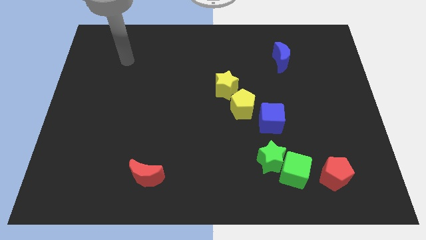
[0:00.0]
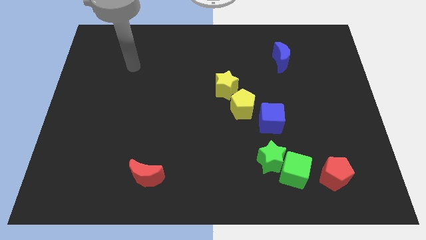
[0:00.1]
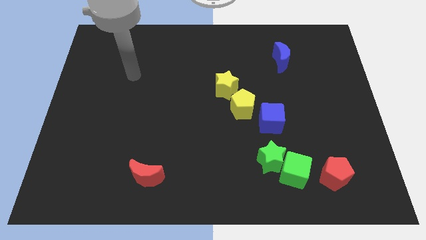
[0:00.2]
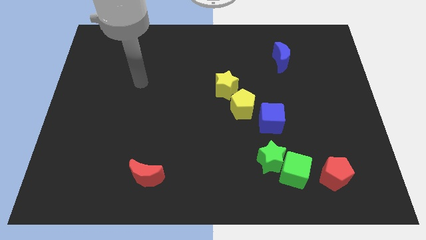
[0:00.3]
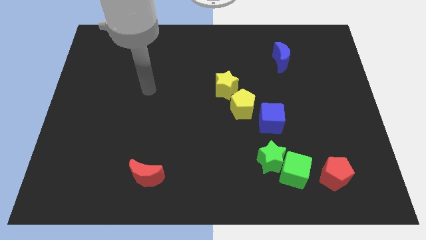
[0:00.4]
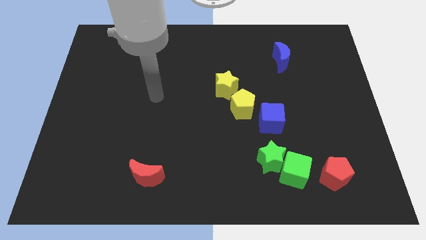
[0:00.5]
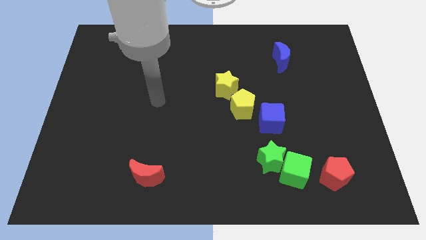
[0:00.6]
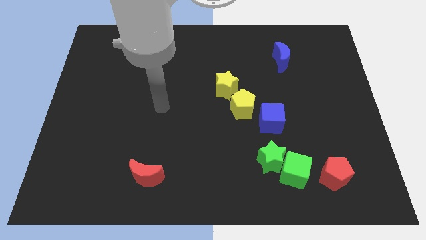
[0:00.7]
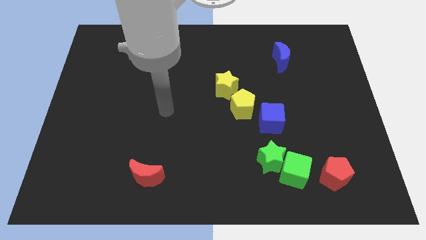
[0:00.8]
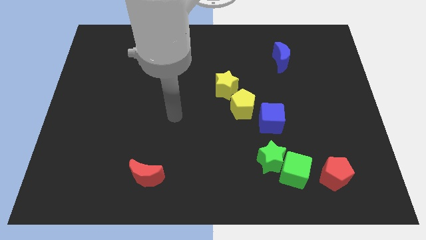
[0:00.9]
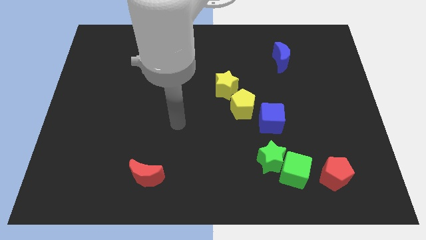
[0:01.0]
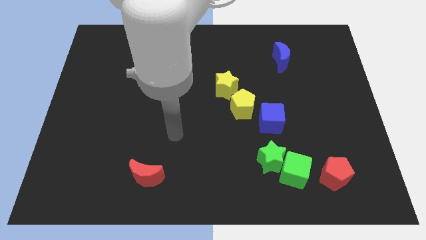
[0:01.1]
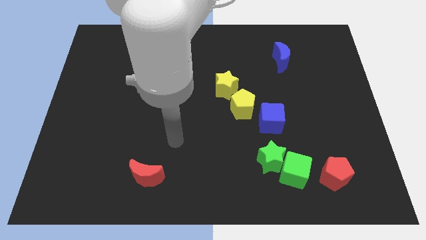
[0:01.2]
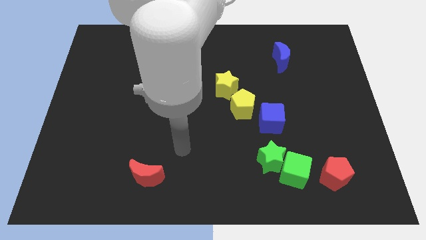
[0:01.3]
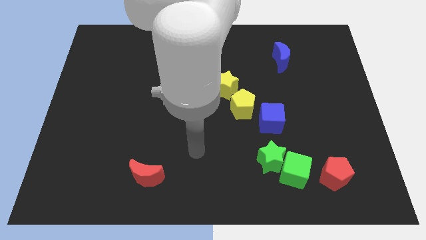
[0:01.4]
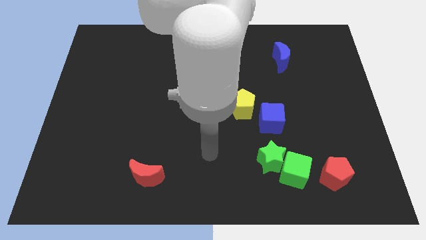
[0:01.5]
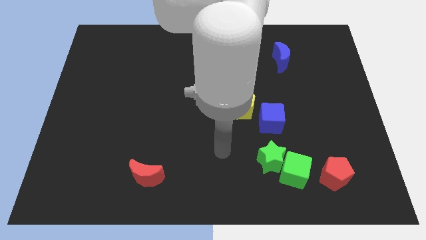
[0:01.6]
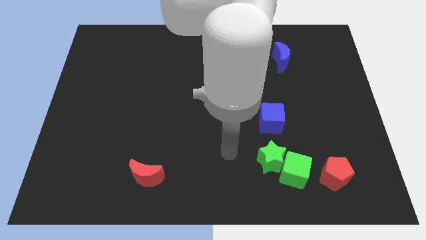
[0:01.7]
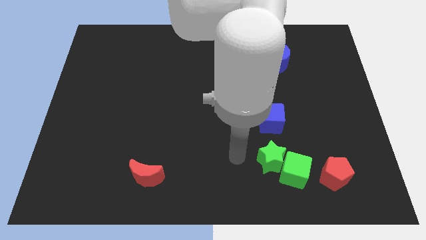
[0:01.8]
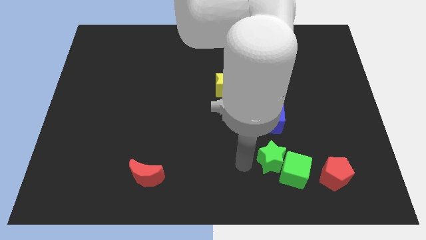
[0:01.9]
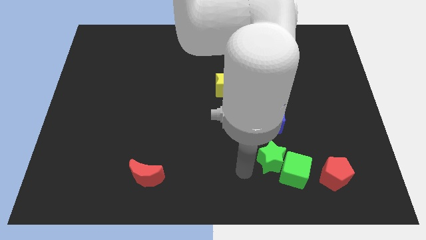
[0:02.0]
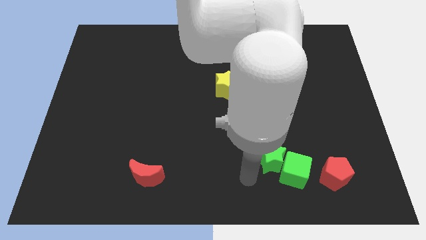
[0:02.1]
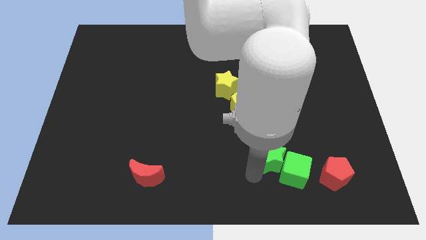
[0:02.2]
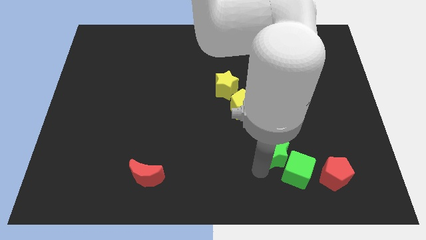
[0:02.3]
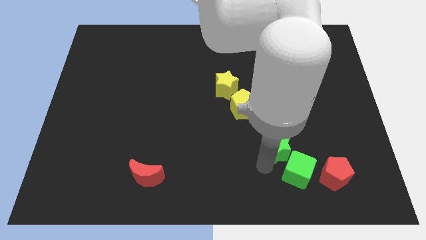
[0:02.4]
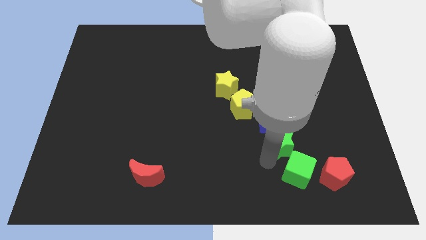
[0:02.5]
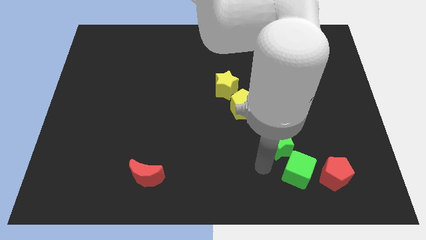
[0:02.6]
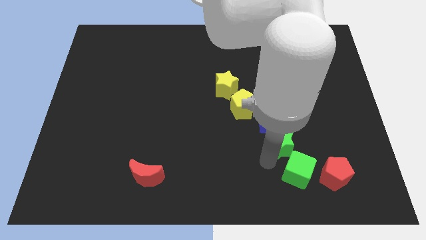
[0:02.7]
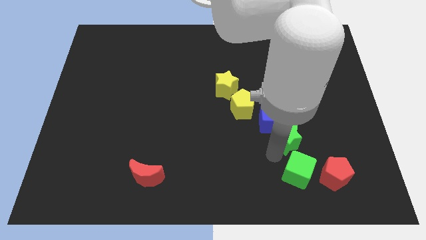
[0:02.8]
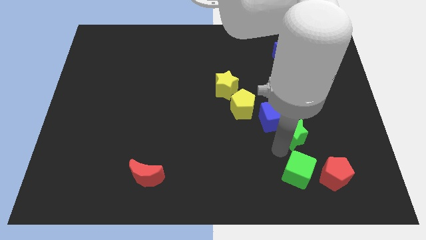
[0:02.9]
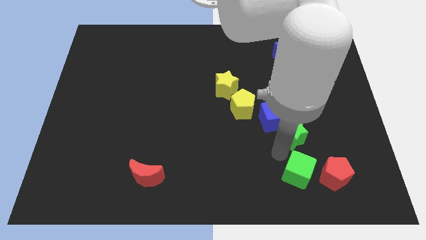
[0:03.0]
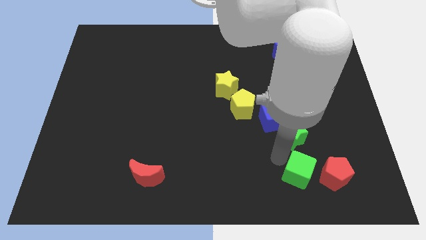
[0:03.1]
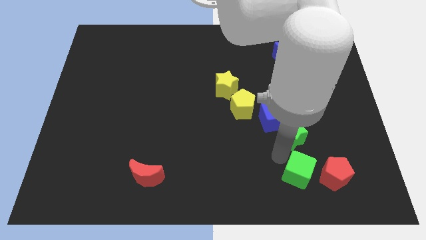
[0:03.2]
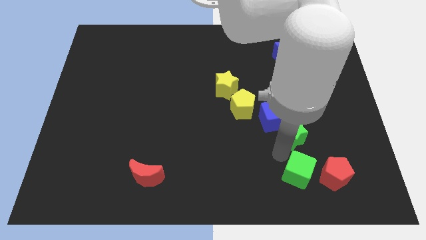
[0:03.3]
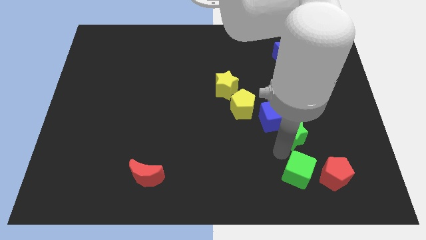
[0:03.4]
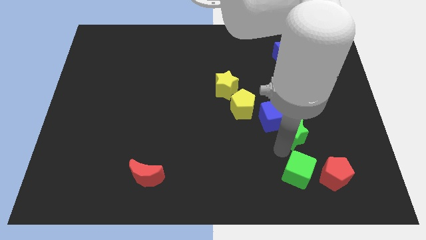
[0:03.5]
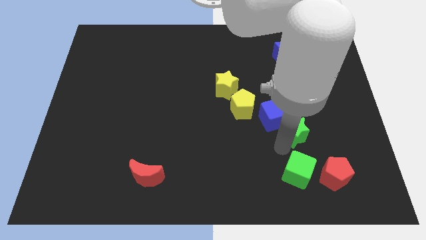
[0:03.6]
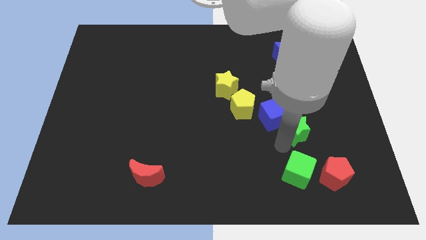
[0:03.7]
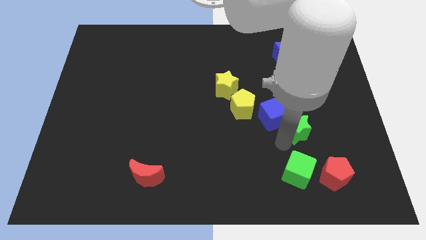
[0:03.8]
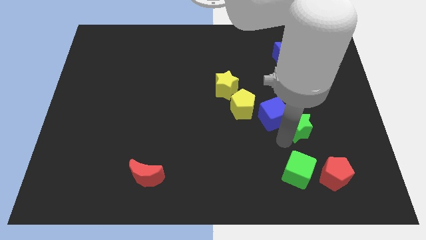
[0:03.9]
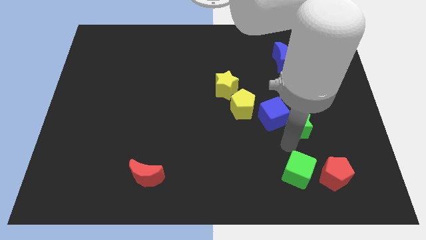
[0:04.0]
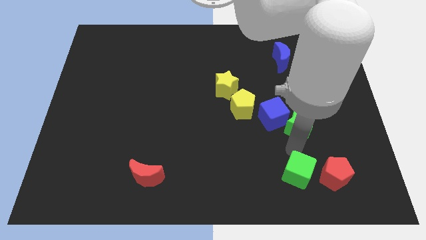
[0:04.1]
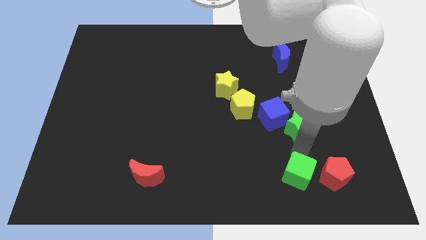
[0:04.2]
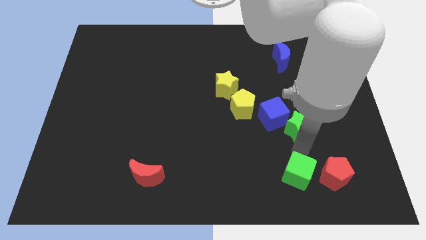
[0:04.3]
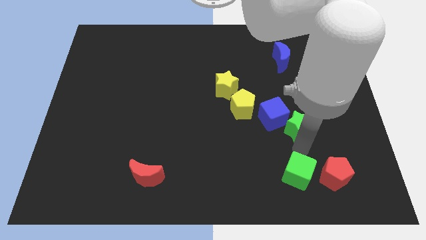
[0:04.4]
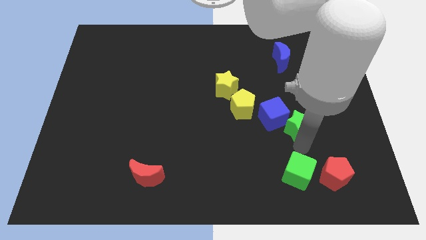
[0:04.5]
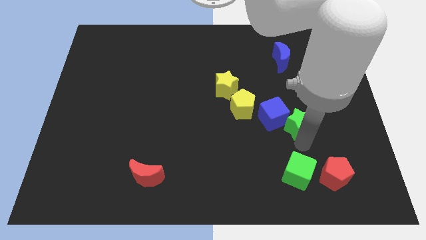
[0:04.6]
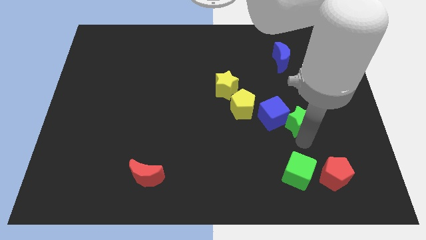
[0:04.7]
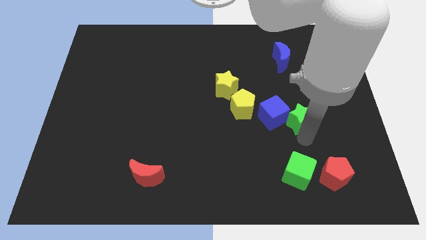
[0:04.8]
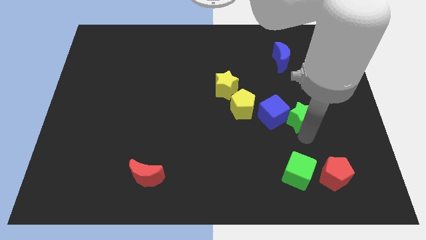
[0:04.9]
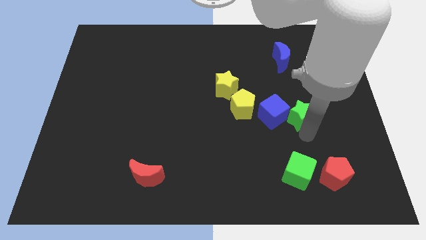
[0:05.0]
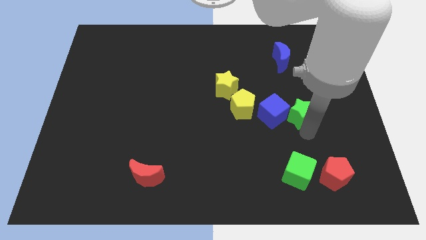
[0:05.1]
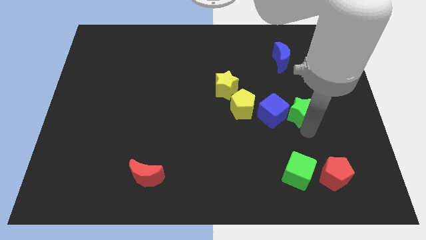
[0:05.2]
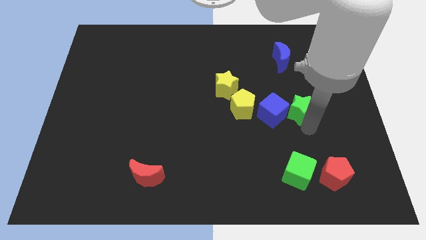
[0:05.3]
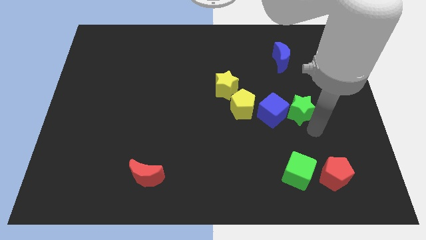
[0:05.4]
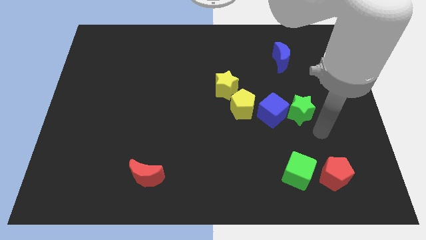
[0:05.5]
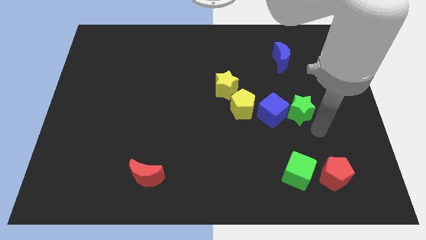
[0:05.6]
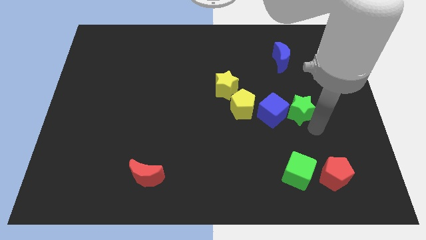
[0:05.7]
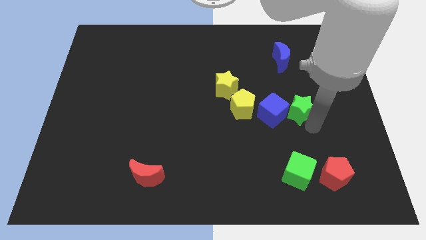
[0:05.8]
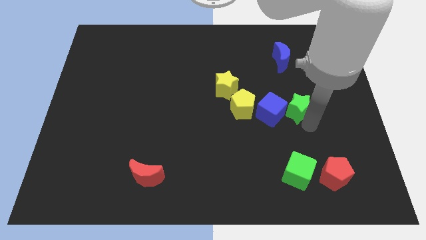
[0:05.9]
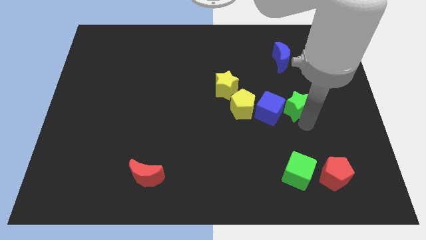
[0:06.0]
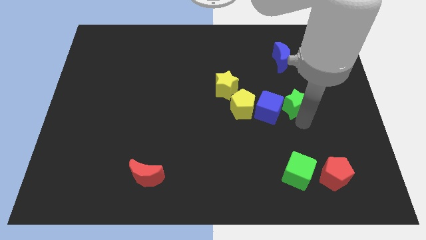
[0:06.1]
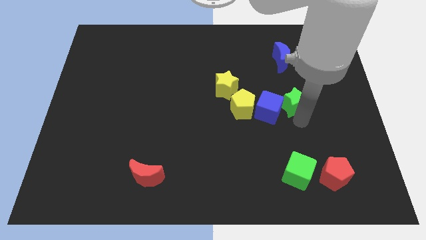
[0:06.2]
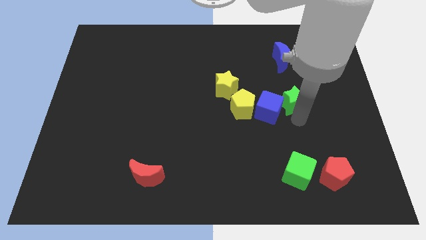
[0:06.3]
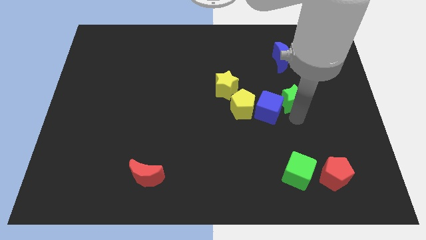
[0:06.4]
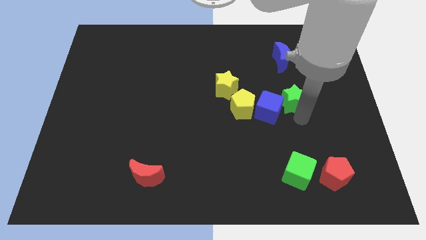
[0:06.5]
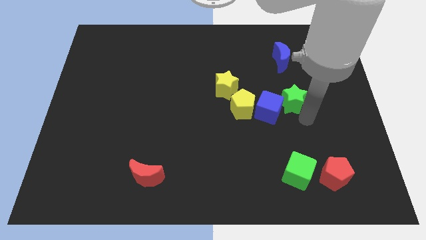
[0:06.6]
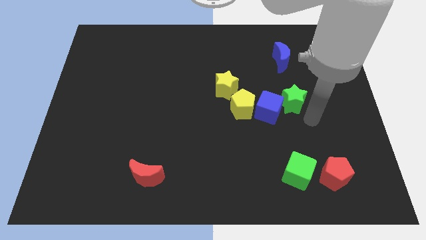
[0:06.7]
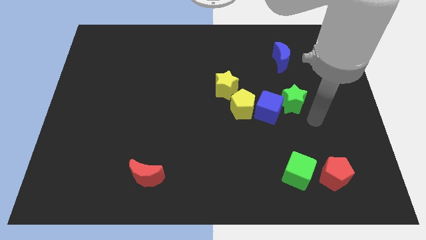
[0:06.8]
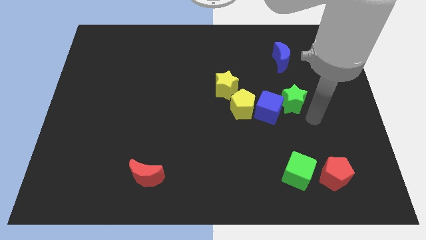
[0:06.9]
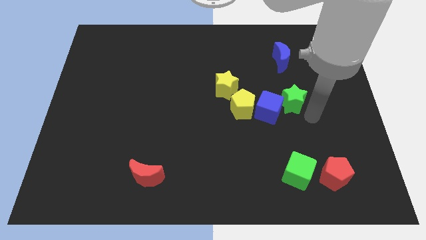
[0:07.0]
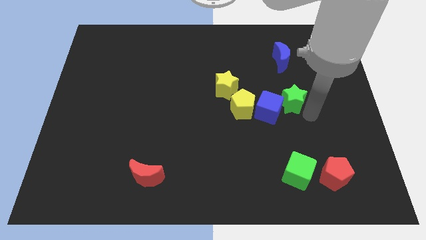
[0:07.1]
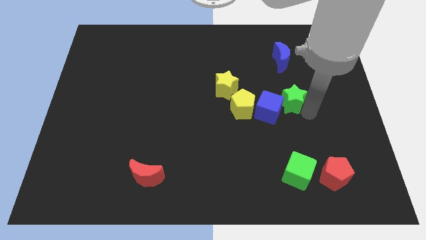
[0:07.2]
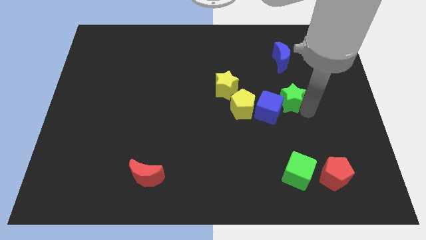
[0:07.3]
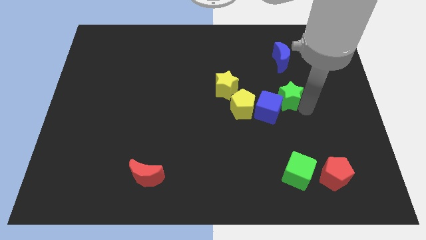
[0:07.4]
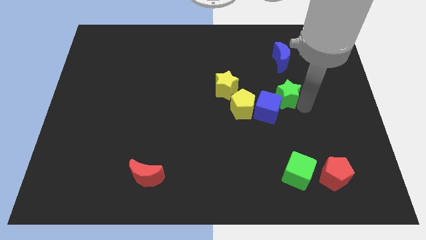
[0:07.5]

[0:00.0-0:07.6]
push the green star to the right side of the yellow star
